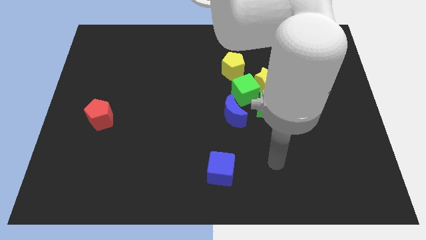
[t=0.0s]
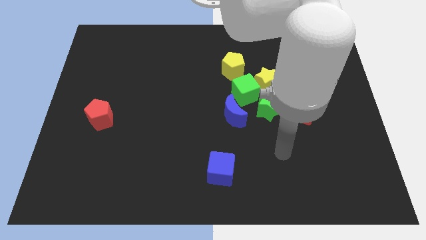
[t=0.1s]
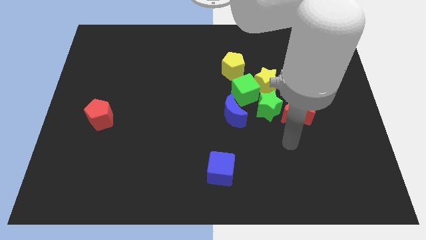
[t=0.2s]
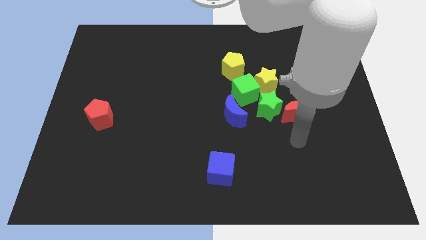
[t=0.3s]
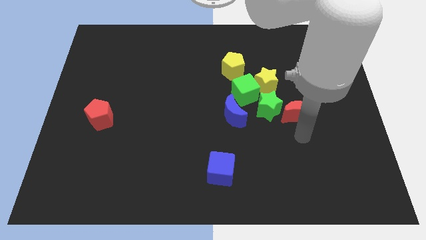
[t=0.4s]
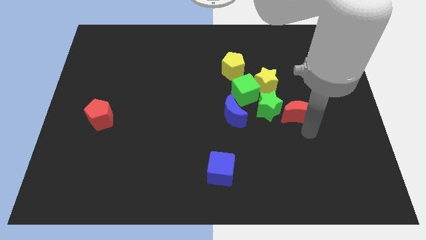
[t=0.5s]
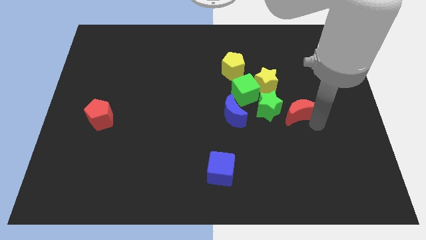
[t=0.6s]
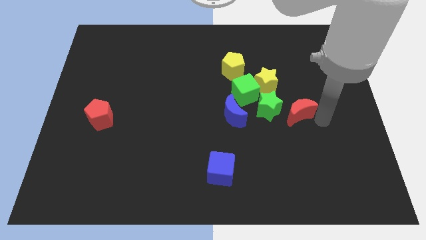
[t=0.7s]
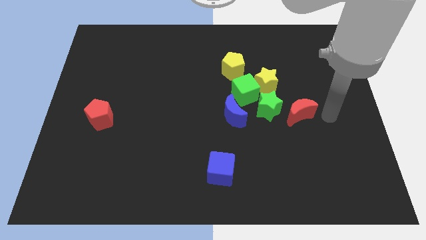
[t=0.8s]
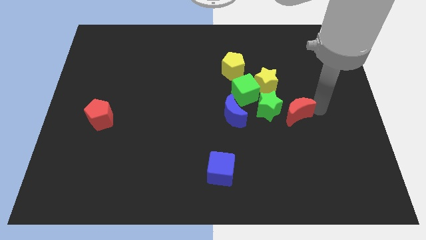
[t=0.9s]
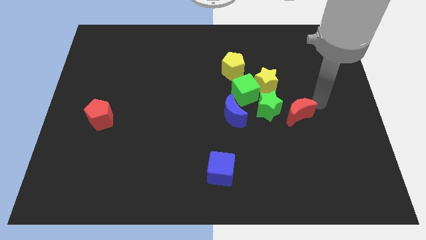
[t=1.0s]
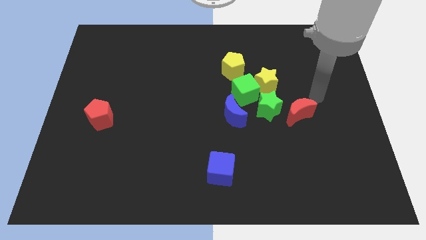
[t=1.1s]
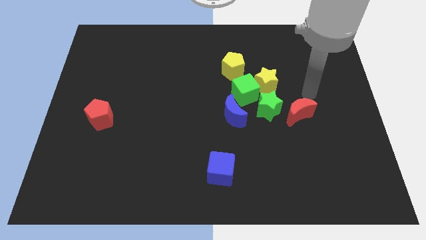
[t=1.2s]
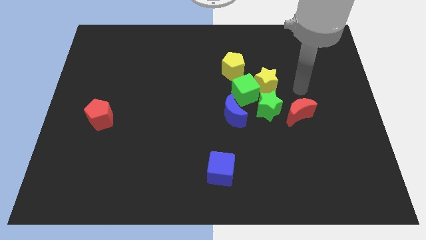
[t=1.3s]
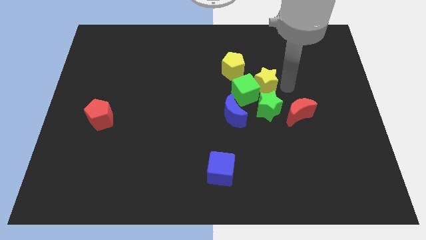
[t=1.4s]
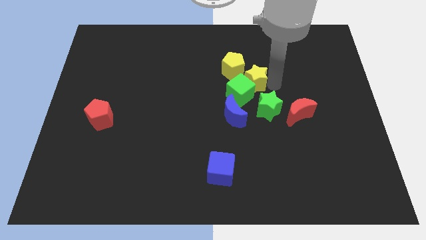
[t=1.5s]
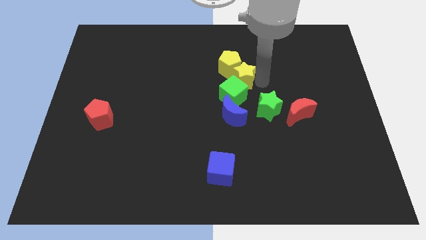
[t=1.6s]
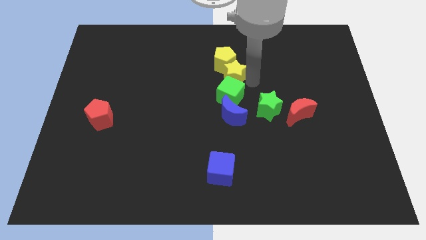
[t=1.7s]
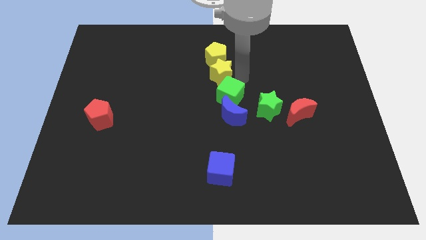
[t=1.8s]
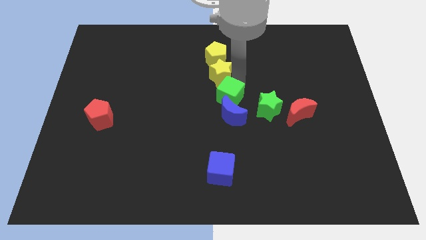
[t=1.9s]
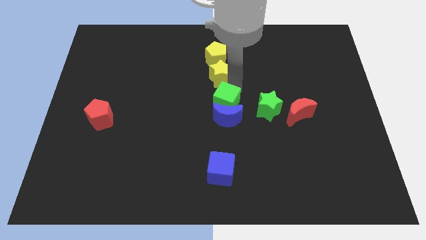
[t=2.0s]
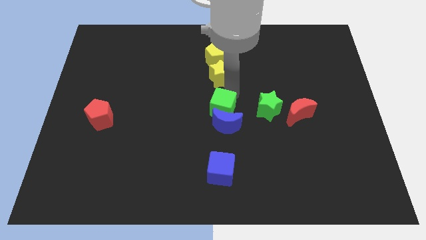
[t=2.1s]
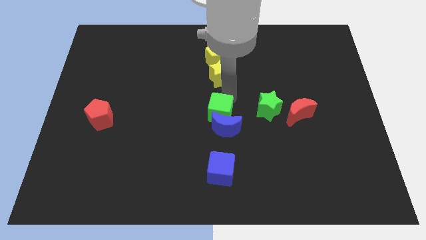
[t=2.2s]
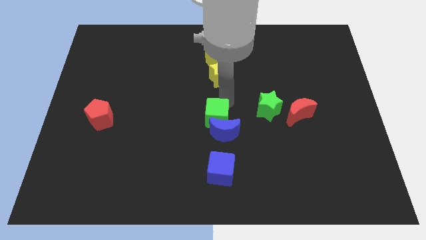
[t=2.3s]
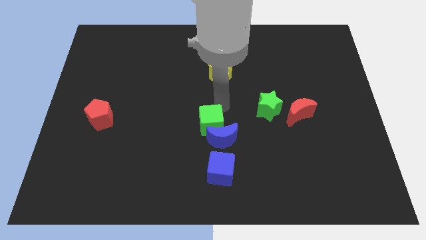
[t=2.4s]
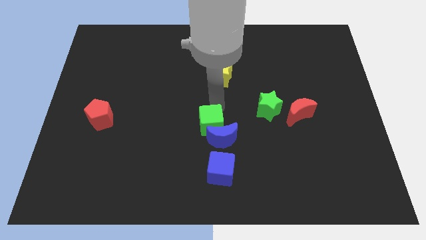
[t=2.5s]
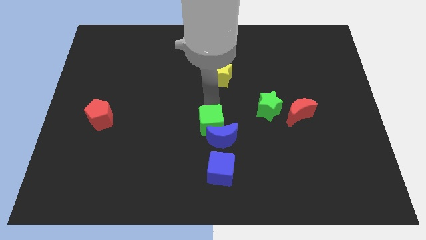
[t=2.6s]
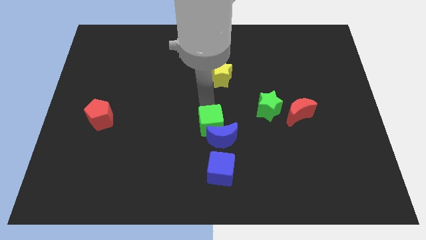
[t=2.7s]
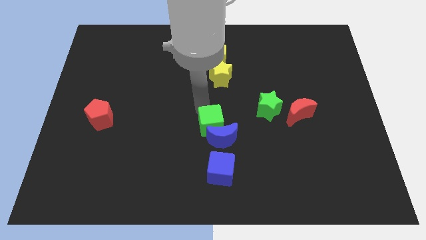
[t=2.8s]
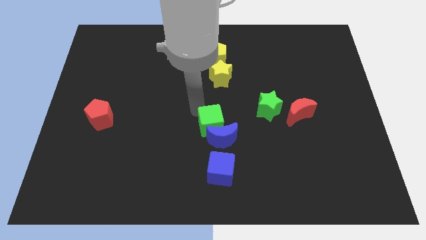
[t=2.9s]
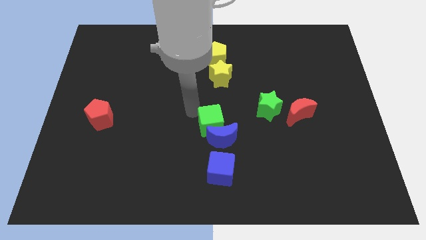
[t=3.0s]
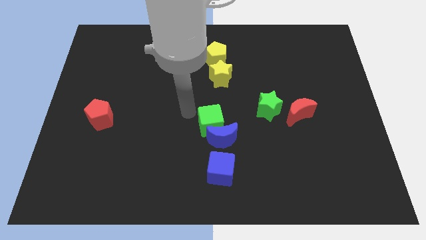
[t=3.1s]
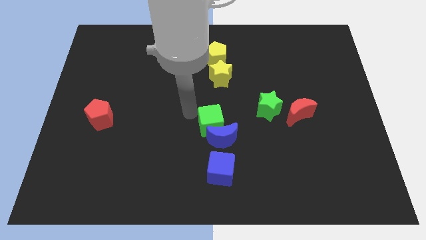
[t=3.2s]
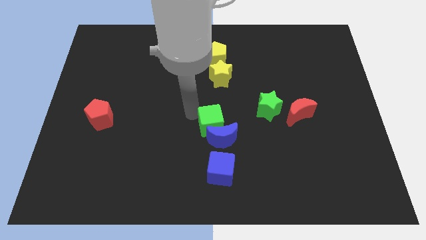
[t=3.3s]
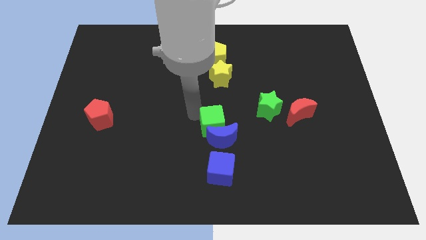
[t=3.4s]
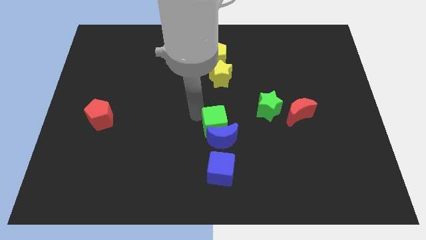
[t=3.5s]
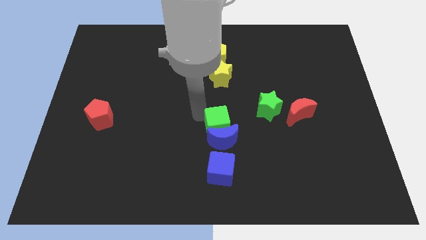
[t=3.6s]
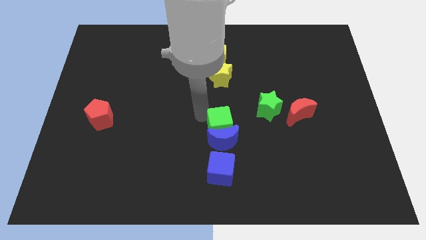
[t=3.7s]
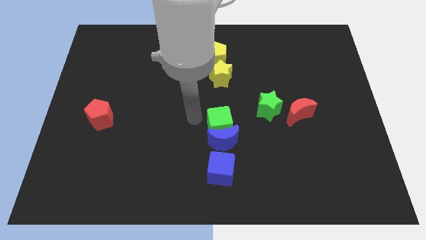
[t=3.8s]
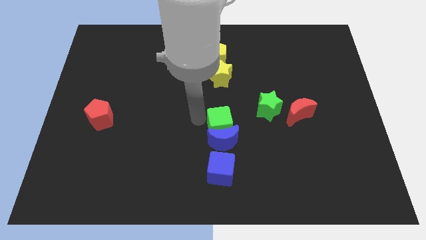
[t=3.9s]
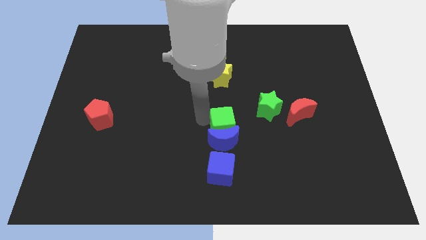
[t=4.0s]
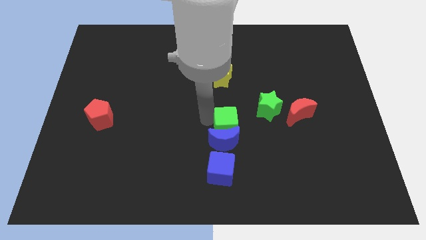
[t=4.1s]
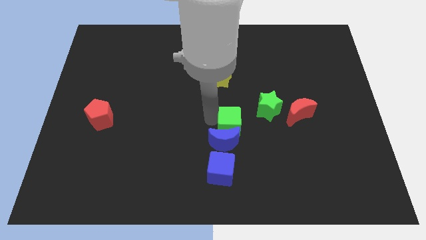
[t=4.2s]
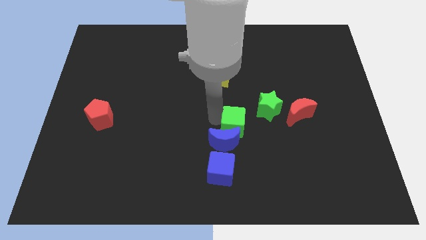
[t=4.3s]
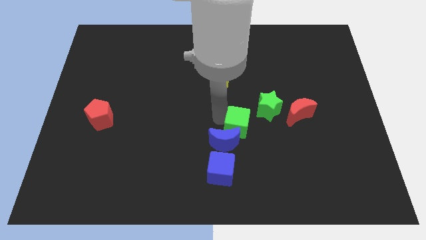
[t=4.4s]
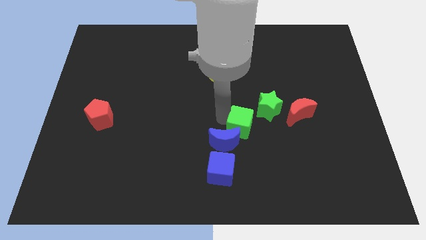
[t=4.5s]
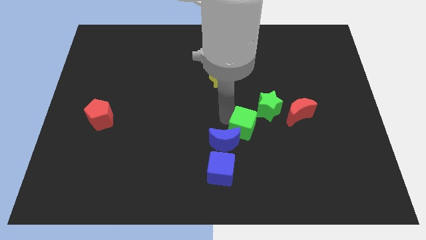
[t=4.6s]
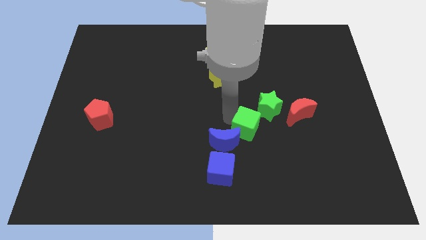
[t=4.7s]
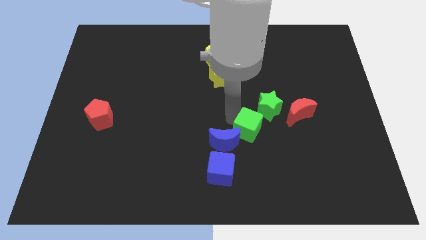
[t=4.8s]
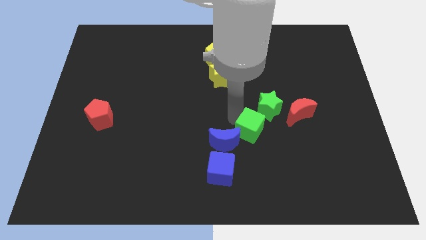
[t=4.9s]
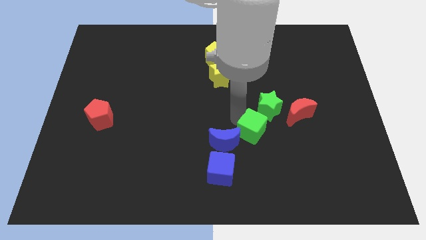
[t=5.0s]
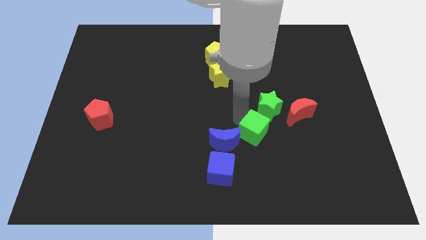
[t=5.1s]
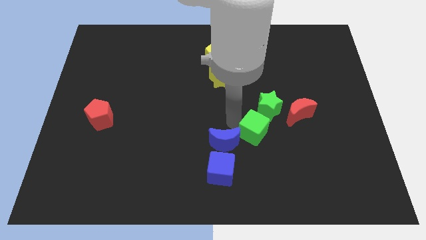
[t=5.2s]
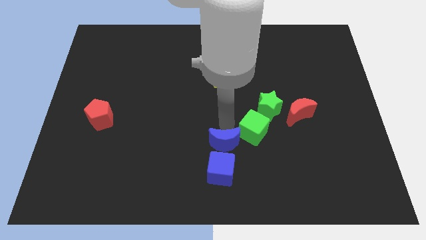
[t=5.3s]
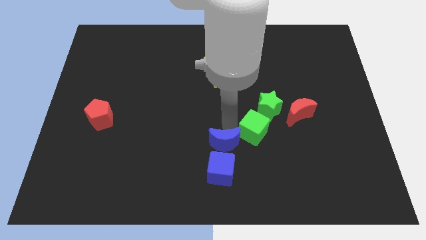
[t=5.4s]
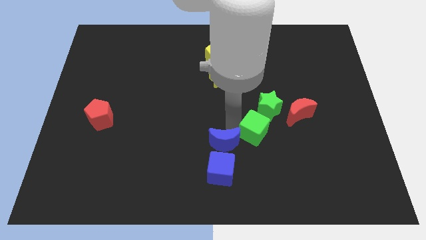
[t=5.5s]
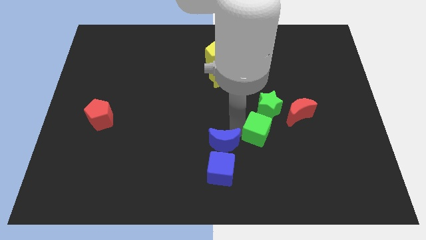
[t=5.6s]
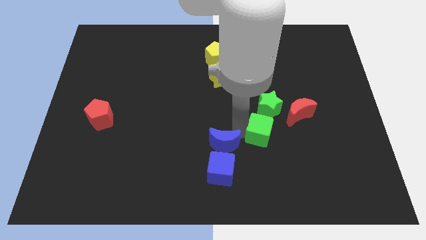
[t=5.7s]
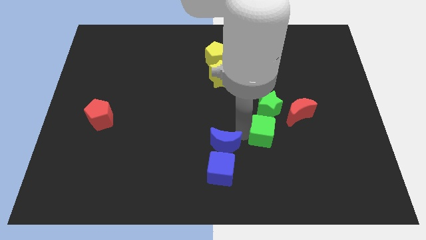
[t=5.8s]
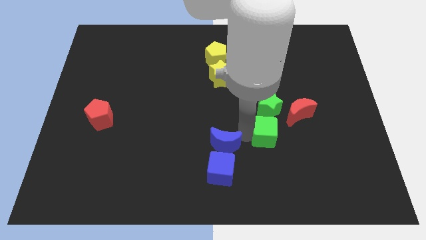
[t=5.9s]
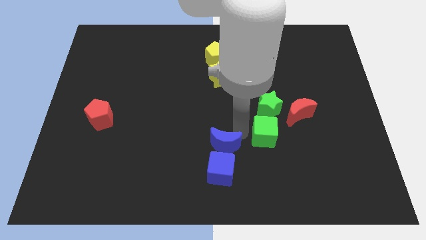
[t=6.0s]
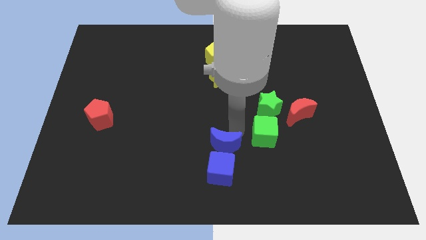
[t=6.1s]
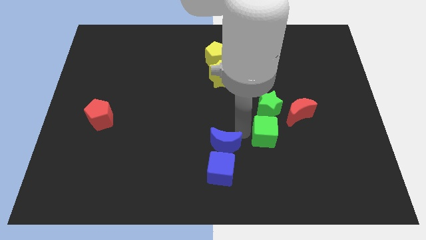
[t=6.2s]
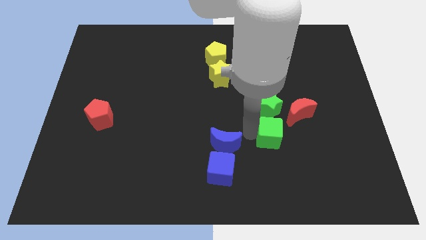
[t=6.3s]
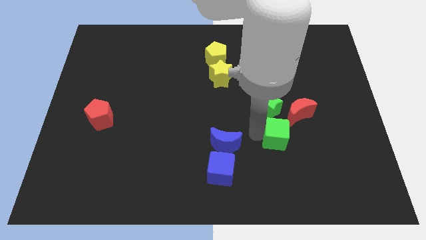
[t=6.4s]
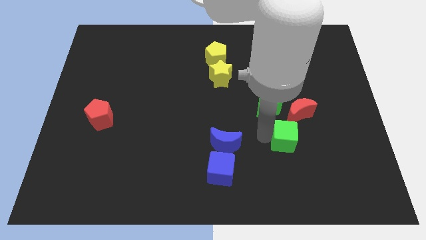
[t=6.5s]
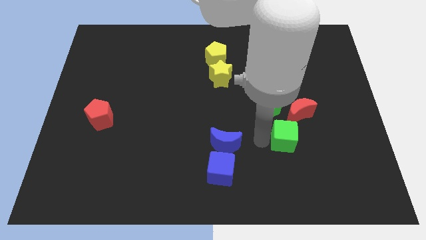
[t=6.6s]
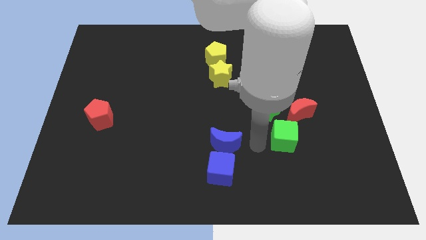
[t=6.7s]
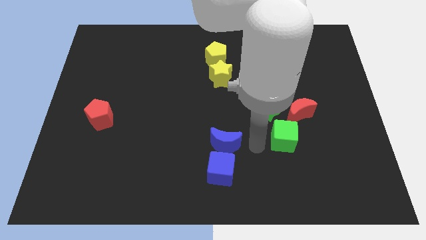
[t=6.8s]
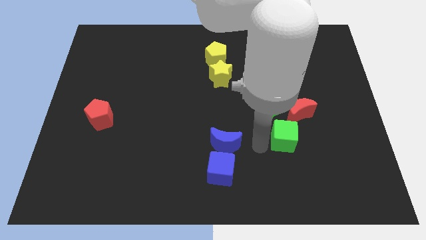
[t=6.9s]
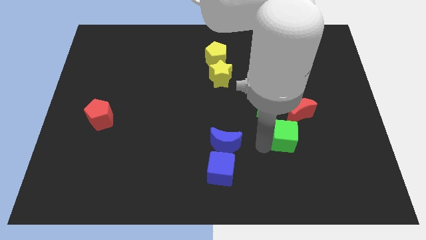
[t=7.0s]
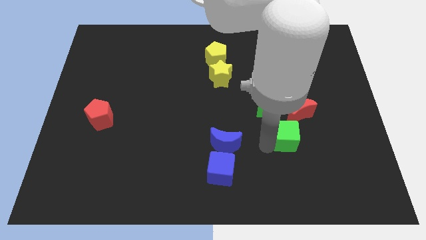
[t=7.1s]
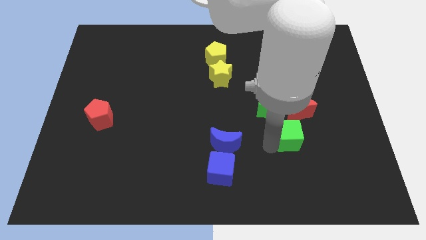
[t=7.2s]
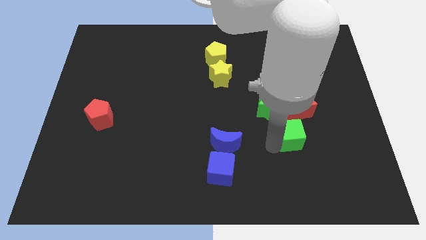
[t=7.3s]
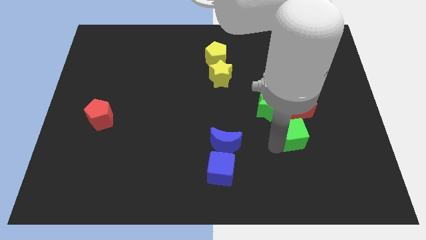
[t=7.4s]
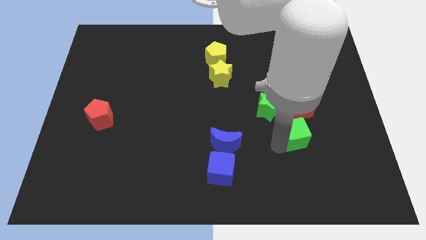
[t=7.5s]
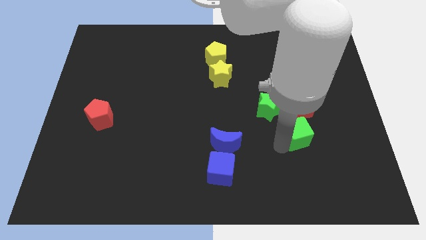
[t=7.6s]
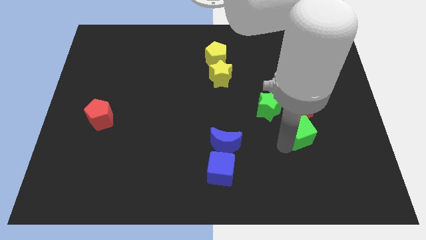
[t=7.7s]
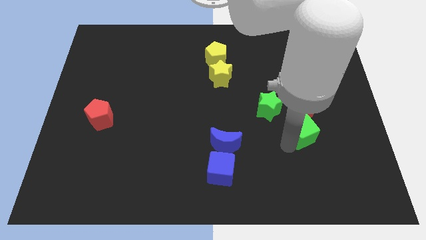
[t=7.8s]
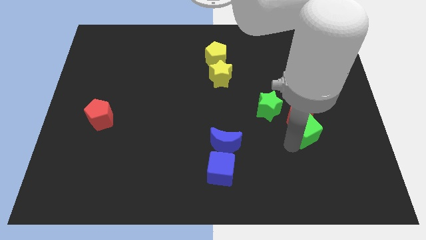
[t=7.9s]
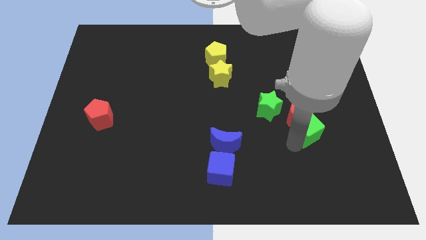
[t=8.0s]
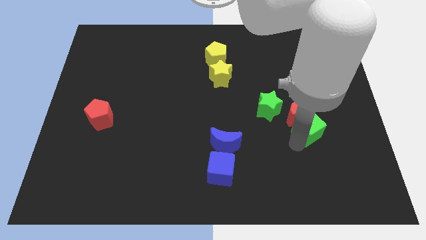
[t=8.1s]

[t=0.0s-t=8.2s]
move the green cube a little right
